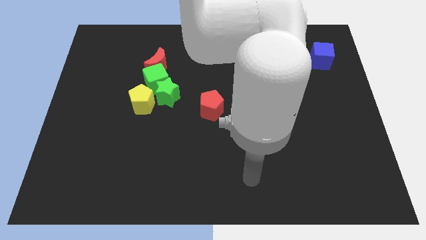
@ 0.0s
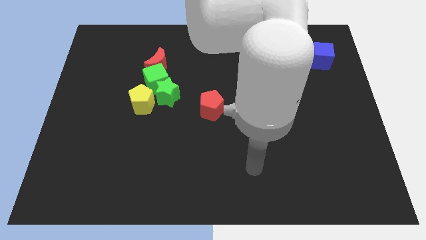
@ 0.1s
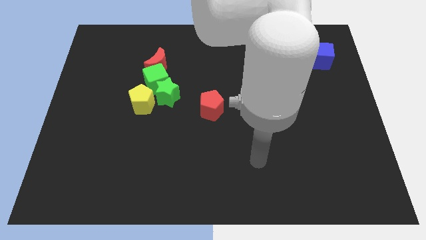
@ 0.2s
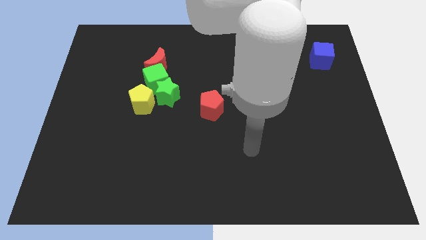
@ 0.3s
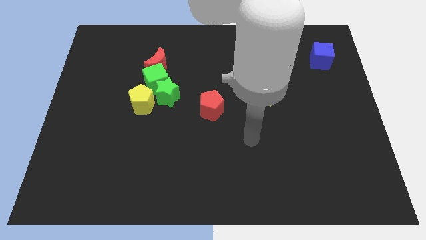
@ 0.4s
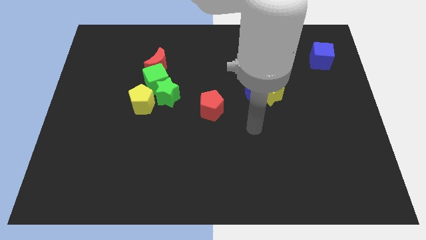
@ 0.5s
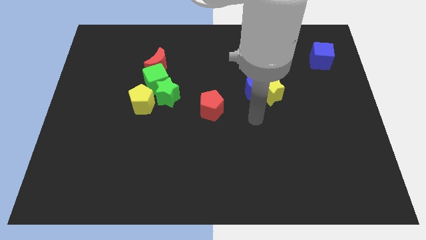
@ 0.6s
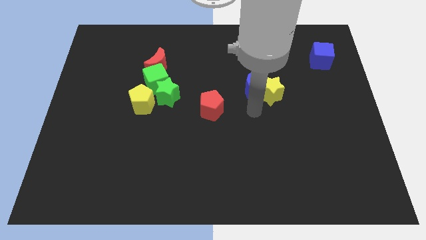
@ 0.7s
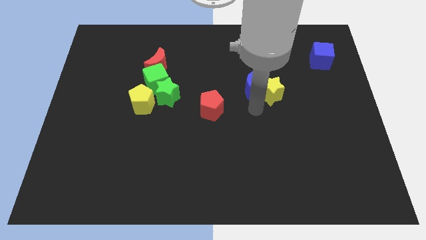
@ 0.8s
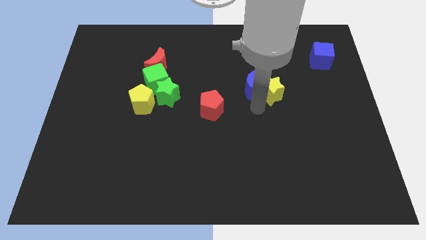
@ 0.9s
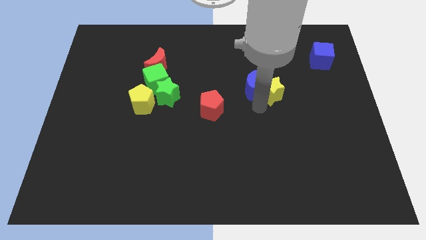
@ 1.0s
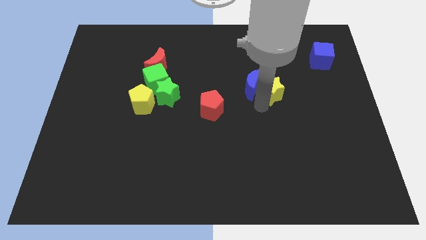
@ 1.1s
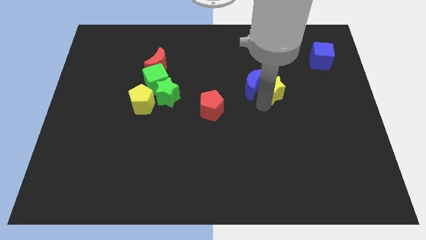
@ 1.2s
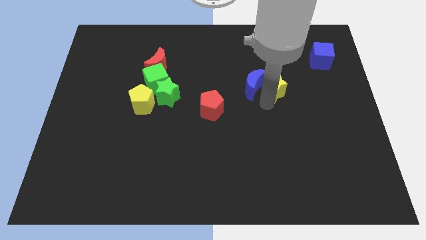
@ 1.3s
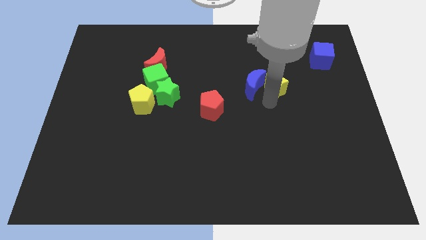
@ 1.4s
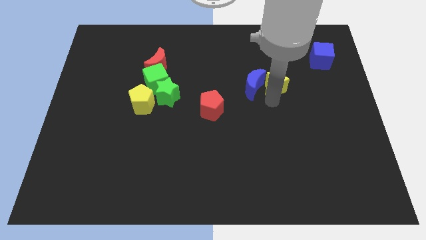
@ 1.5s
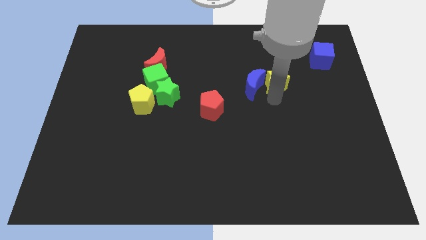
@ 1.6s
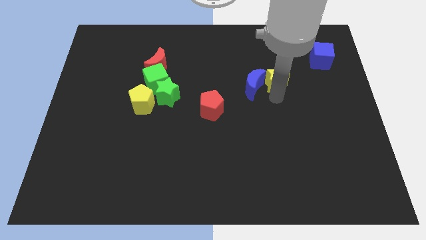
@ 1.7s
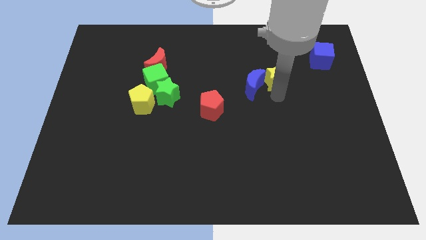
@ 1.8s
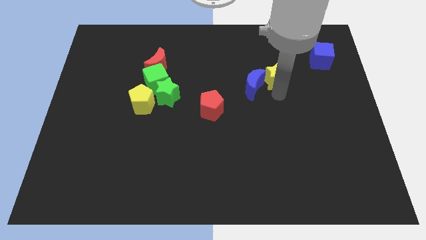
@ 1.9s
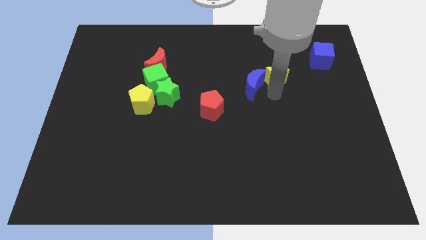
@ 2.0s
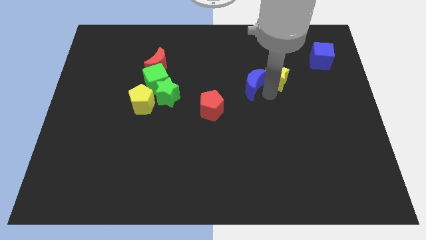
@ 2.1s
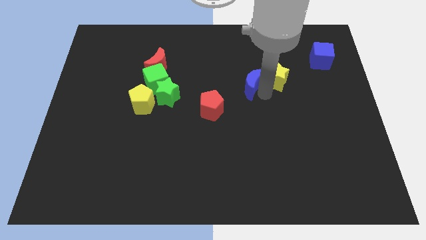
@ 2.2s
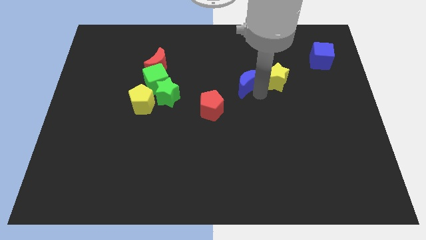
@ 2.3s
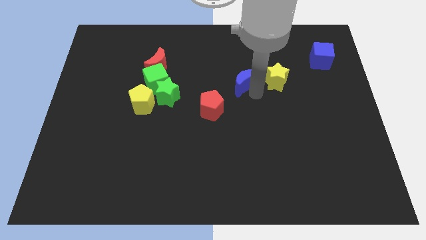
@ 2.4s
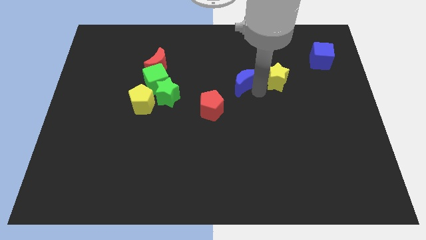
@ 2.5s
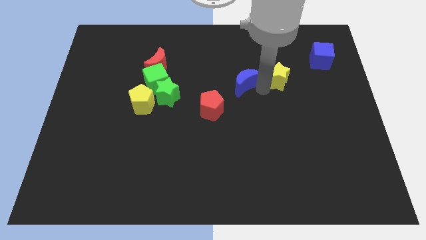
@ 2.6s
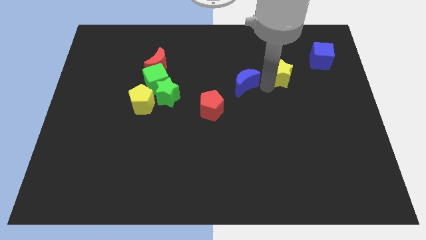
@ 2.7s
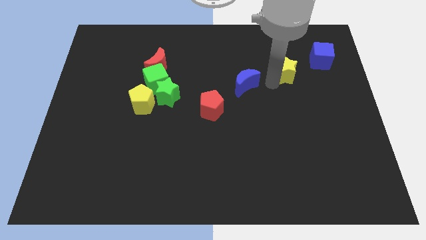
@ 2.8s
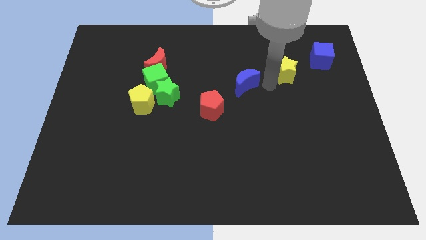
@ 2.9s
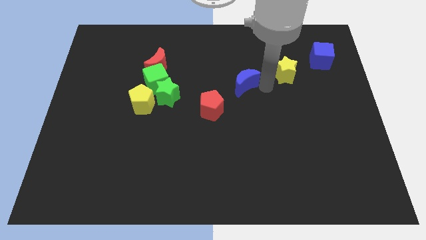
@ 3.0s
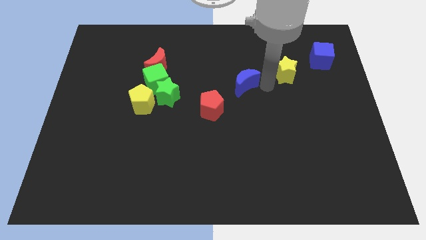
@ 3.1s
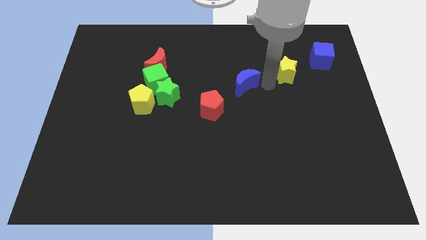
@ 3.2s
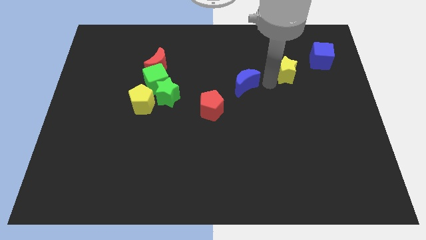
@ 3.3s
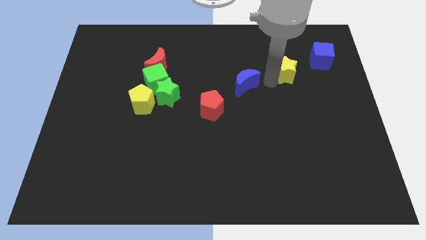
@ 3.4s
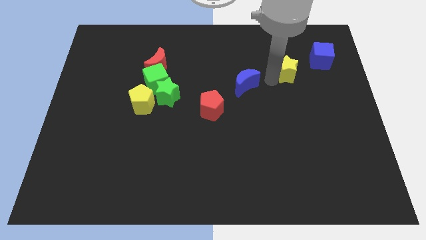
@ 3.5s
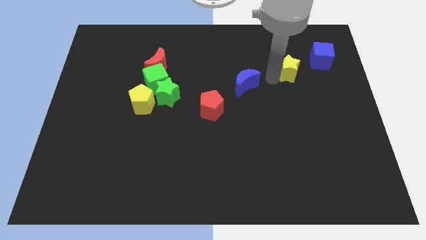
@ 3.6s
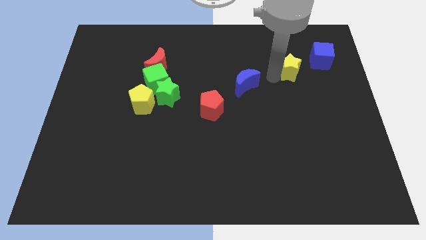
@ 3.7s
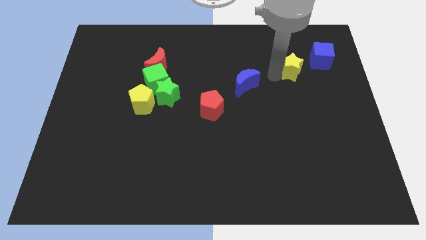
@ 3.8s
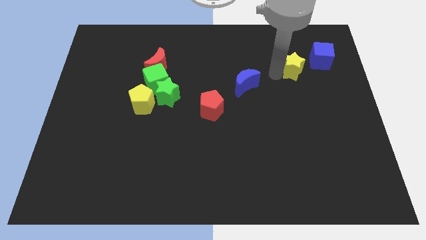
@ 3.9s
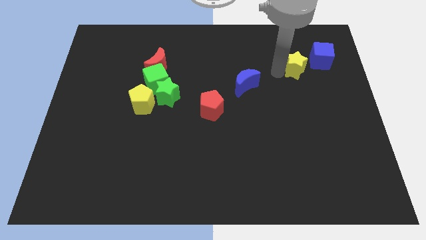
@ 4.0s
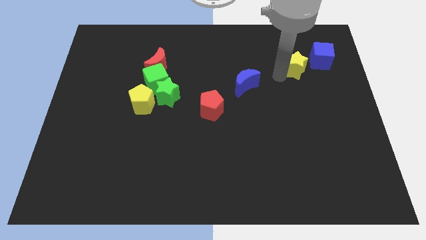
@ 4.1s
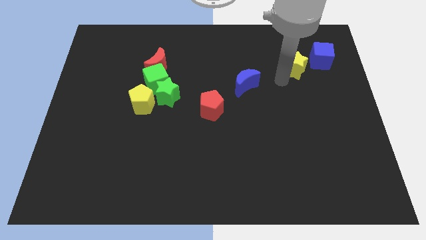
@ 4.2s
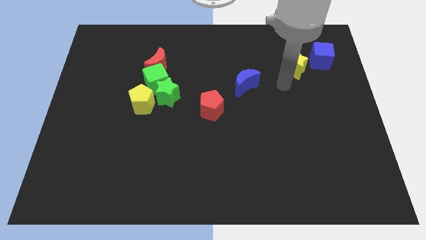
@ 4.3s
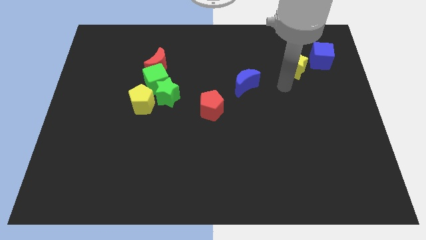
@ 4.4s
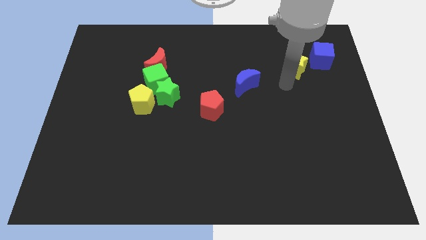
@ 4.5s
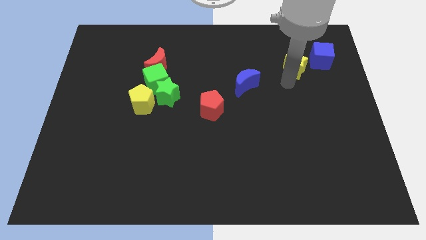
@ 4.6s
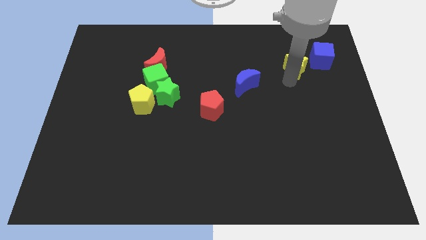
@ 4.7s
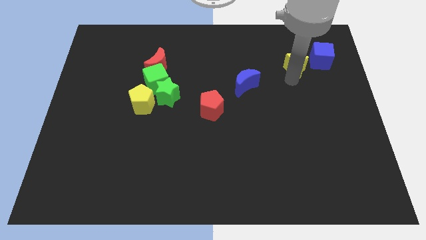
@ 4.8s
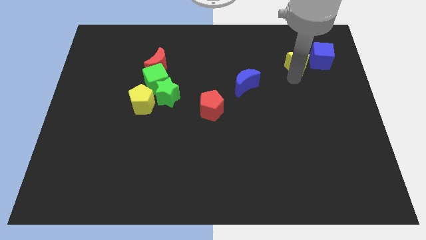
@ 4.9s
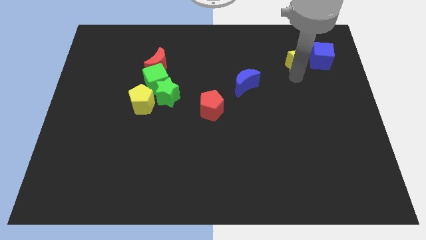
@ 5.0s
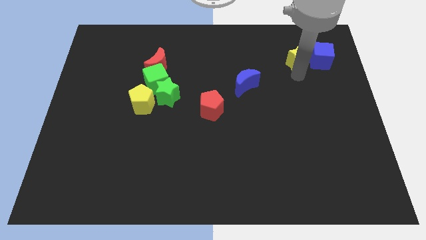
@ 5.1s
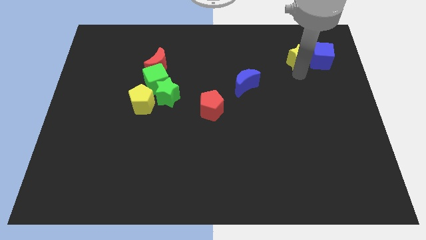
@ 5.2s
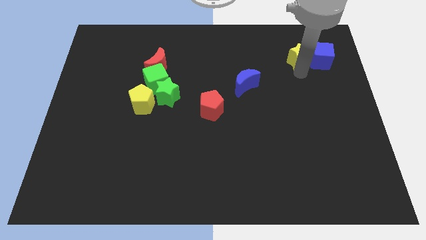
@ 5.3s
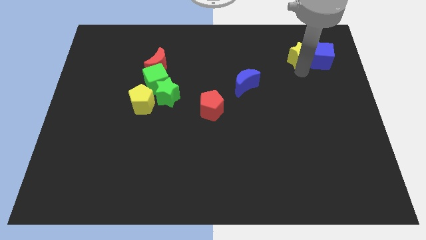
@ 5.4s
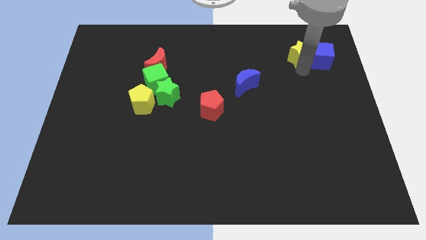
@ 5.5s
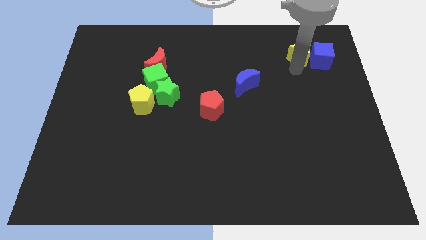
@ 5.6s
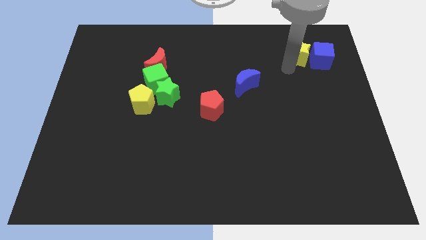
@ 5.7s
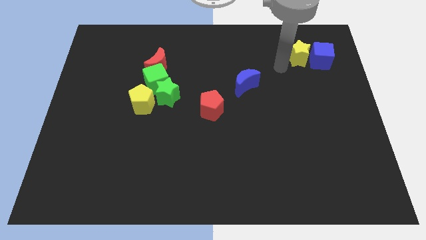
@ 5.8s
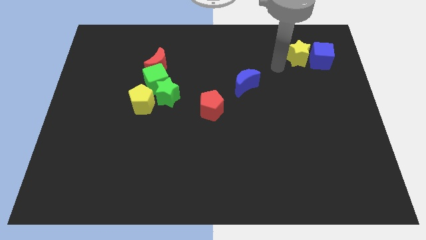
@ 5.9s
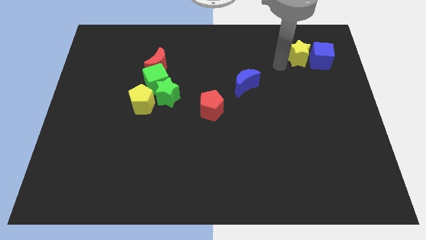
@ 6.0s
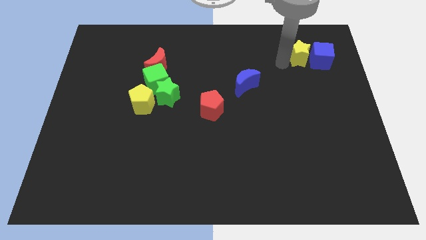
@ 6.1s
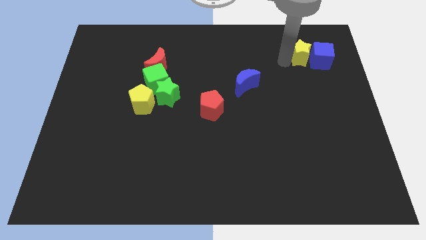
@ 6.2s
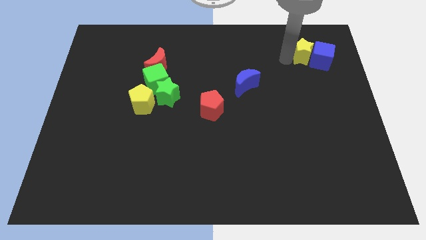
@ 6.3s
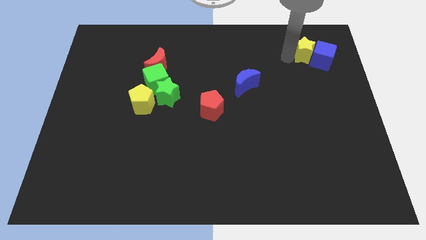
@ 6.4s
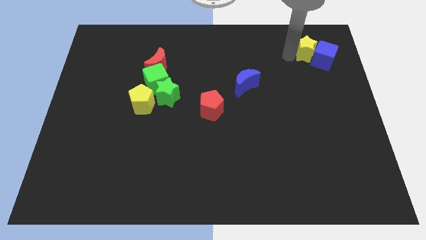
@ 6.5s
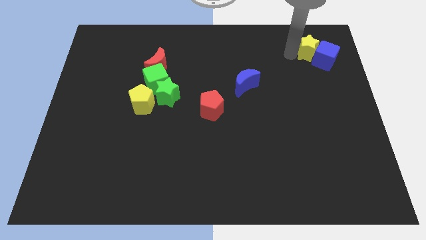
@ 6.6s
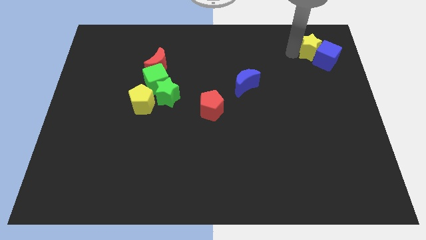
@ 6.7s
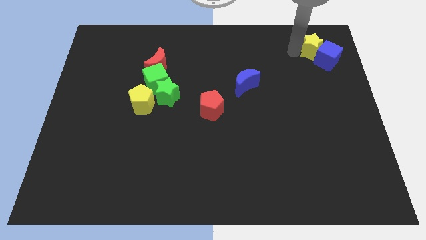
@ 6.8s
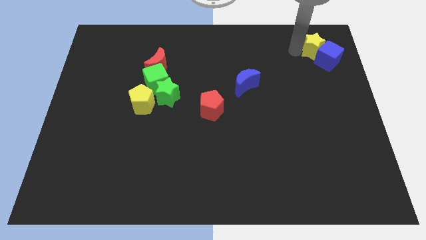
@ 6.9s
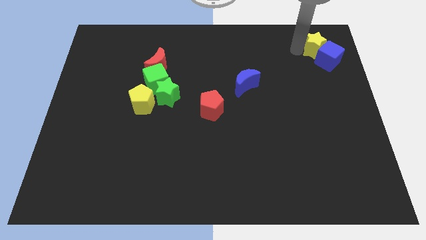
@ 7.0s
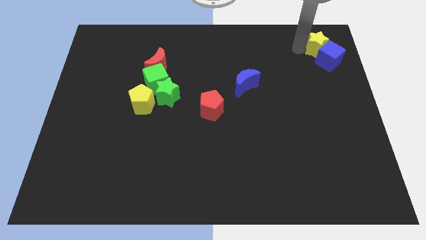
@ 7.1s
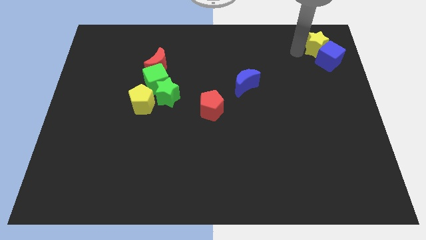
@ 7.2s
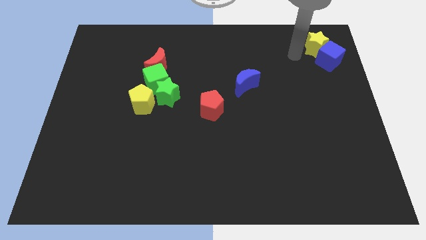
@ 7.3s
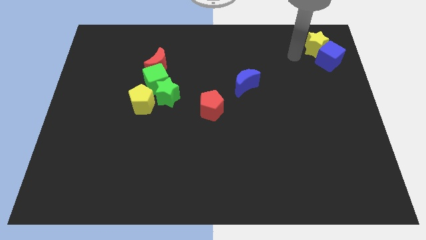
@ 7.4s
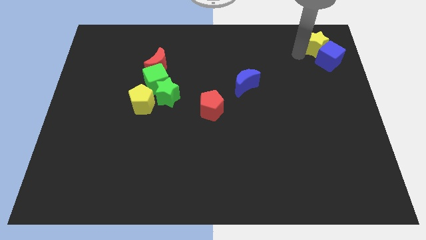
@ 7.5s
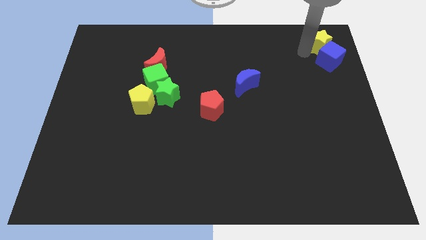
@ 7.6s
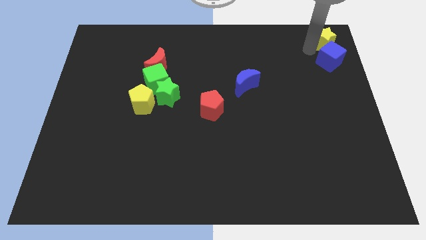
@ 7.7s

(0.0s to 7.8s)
move the yellow star to the top right corner
